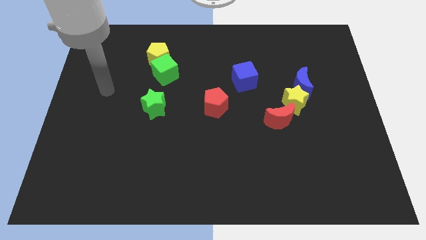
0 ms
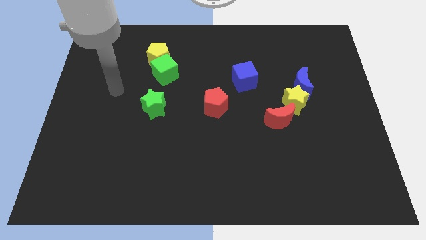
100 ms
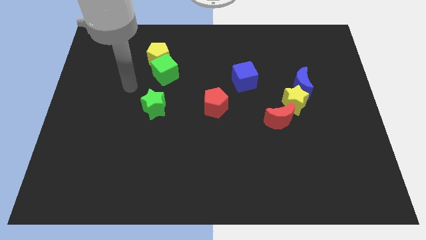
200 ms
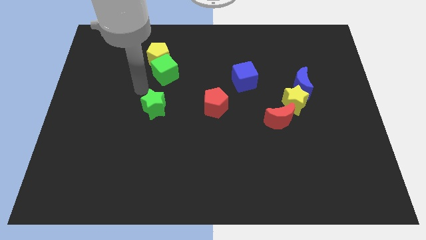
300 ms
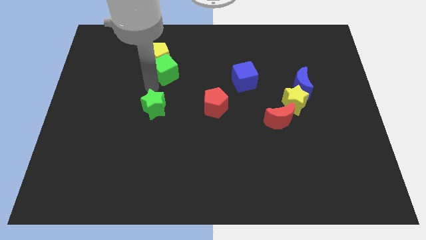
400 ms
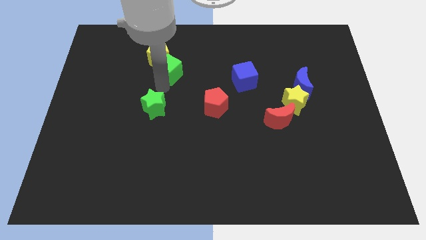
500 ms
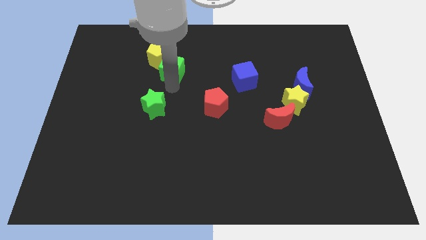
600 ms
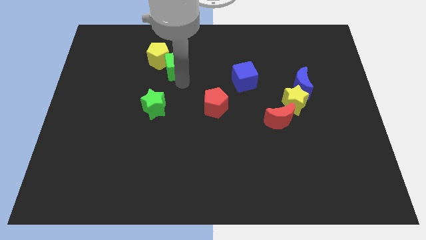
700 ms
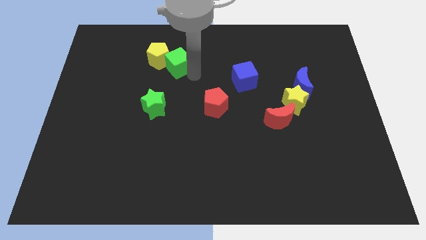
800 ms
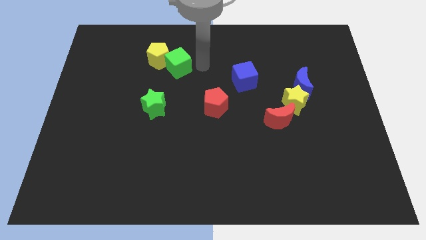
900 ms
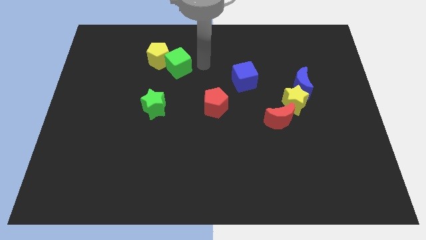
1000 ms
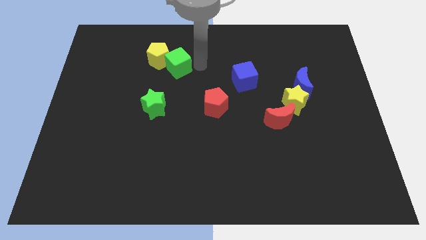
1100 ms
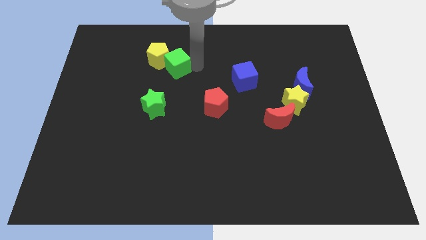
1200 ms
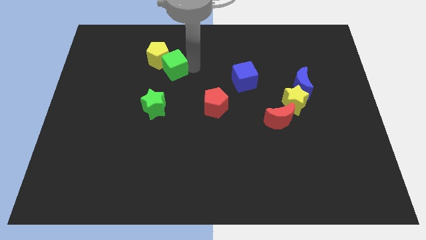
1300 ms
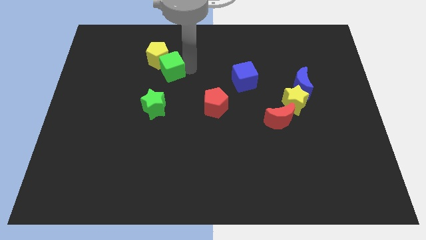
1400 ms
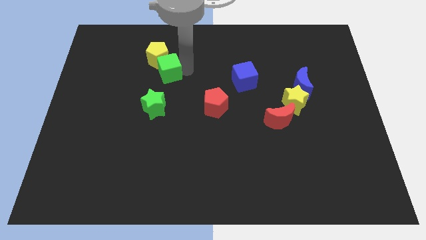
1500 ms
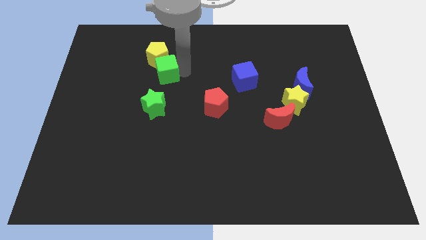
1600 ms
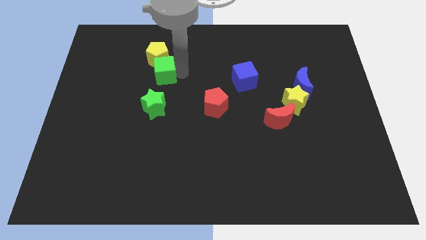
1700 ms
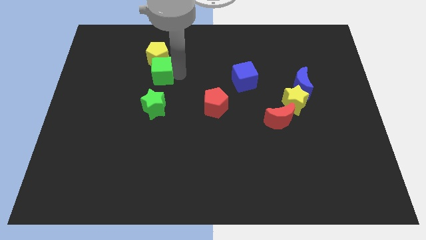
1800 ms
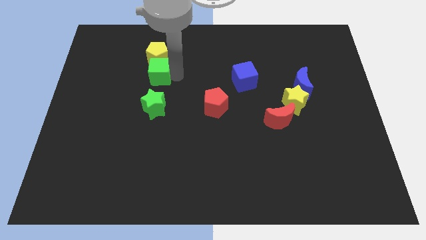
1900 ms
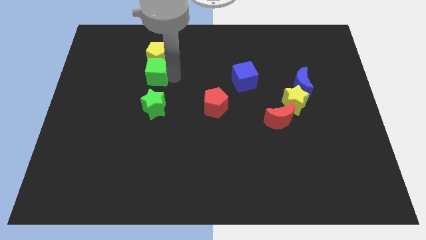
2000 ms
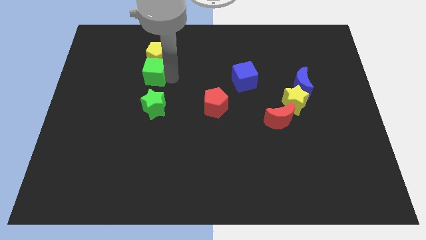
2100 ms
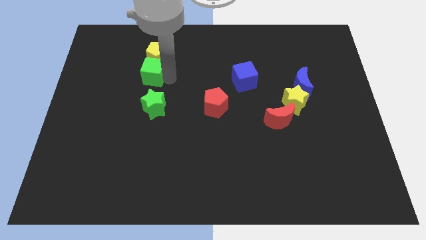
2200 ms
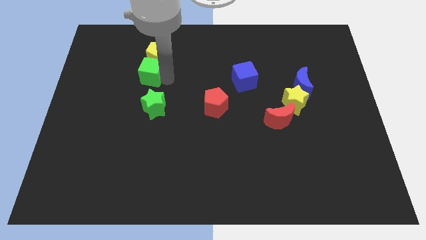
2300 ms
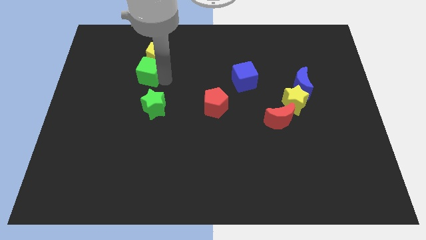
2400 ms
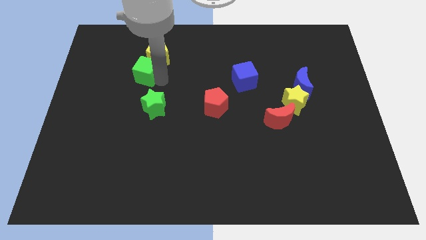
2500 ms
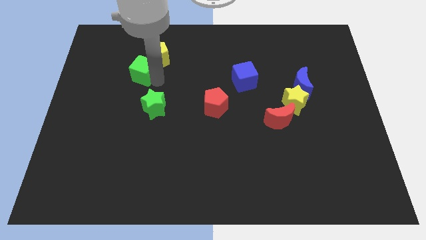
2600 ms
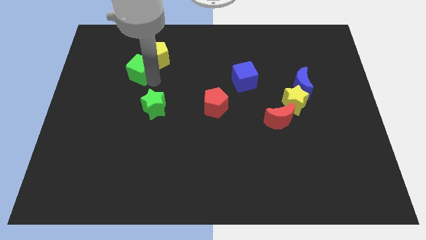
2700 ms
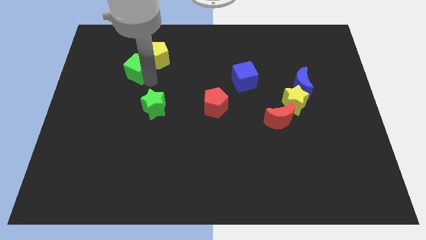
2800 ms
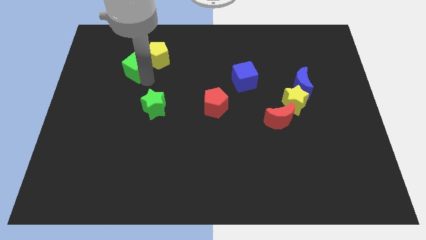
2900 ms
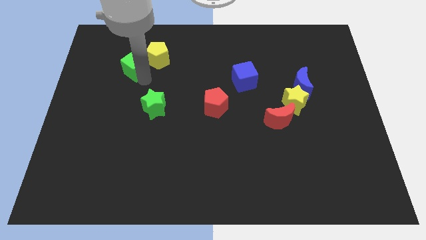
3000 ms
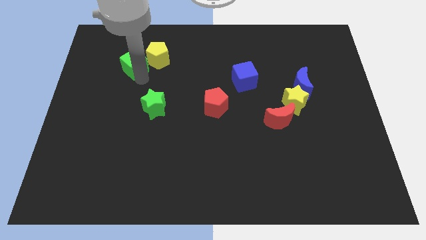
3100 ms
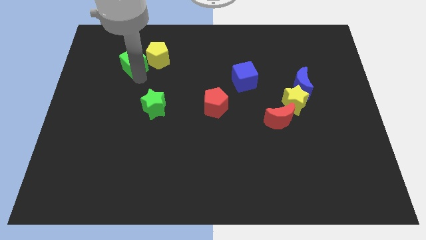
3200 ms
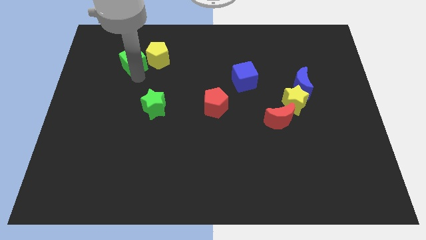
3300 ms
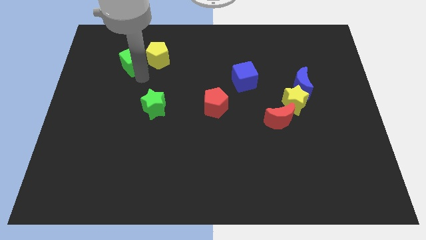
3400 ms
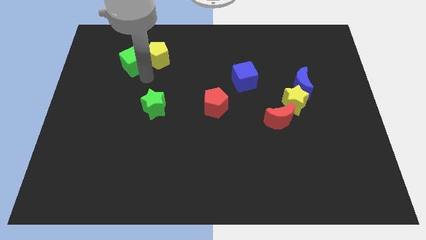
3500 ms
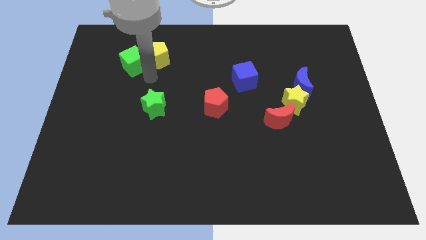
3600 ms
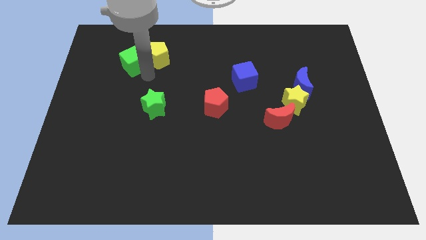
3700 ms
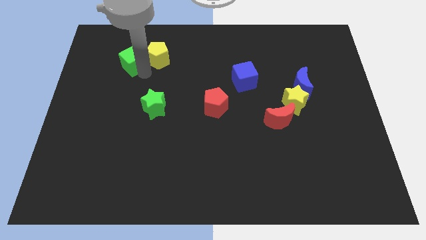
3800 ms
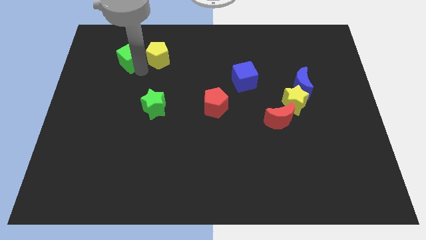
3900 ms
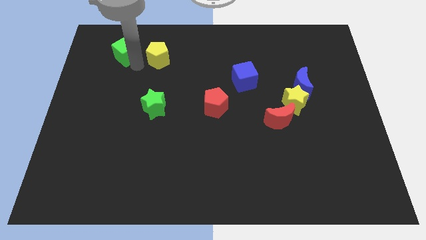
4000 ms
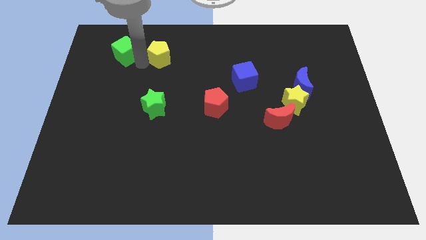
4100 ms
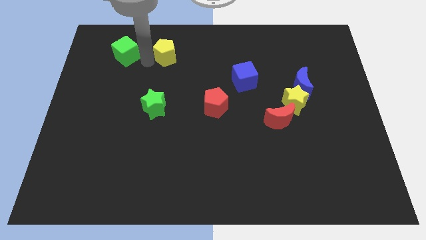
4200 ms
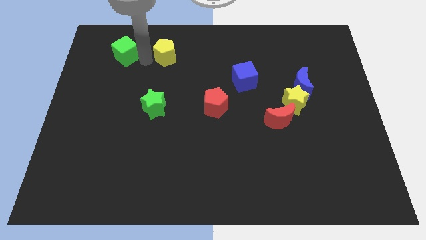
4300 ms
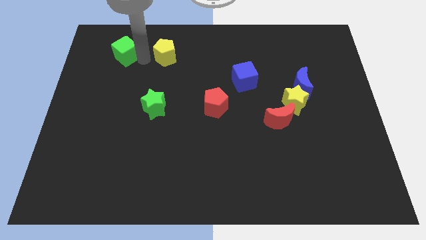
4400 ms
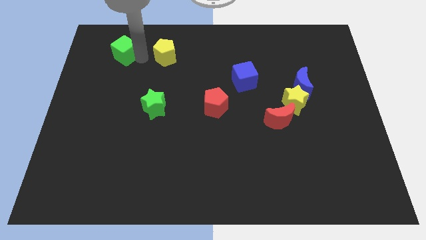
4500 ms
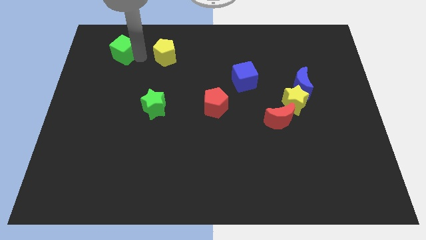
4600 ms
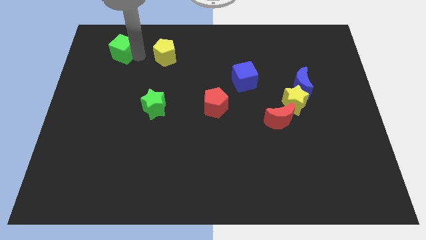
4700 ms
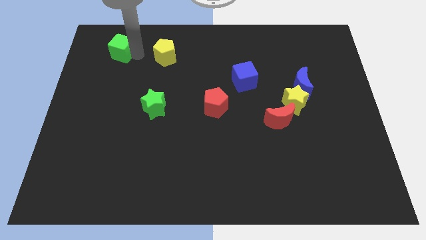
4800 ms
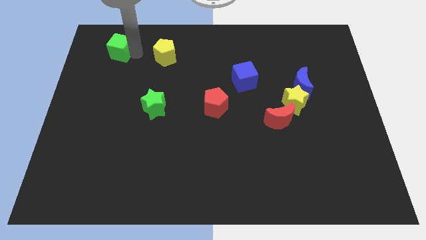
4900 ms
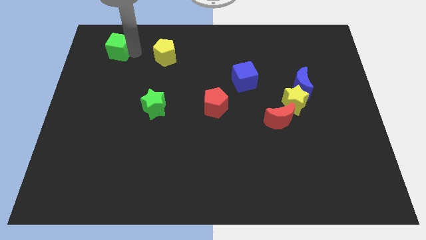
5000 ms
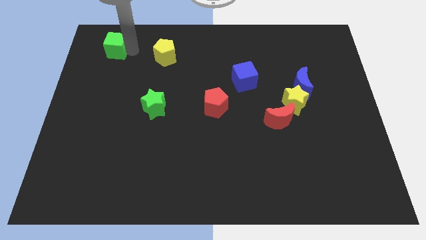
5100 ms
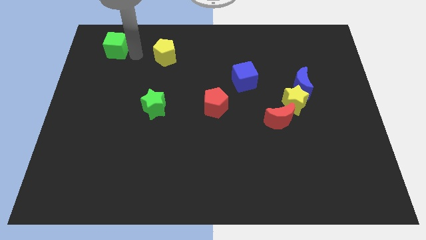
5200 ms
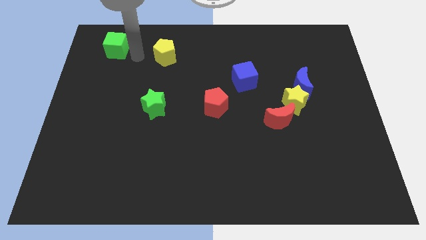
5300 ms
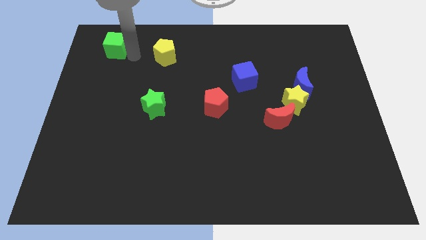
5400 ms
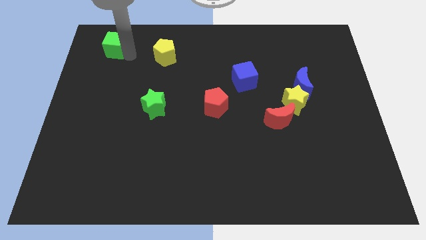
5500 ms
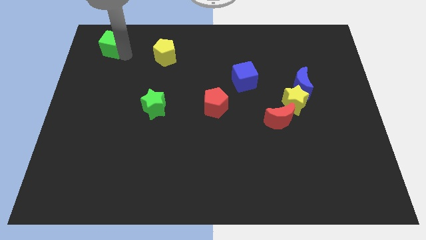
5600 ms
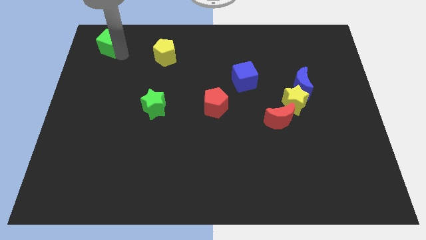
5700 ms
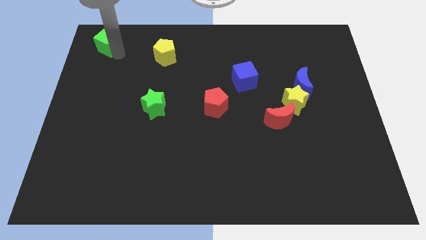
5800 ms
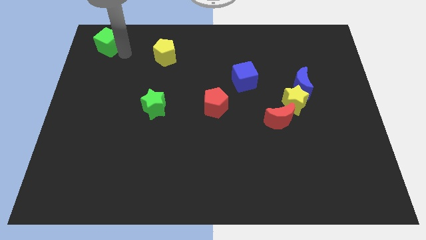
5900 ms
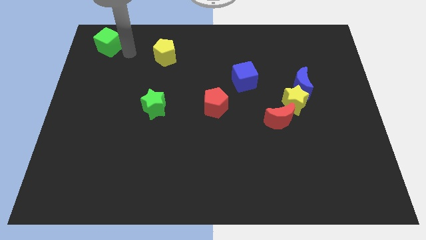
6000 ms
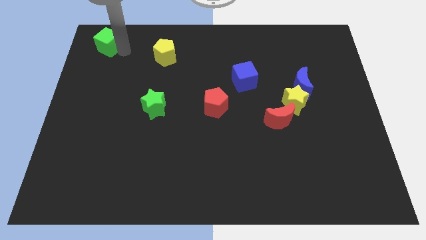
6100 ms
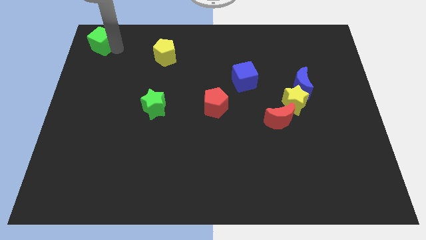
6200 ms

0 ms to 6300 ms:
slide the green cube to the top left of the board

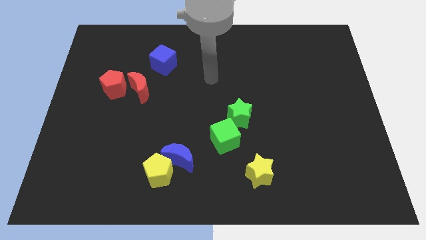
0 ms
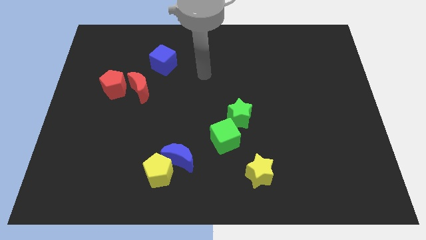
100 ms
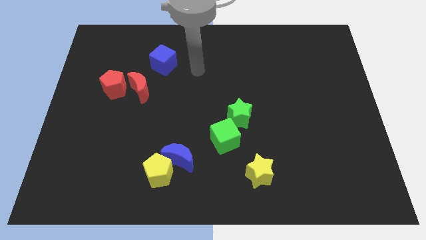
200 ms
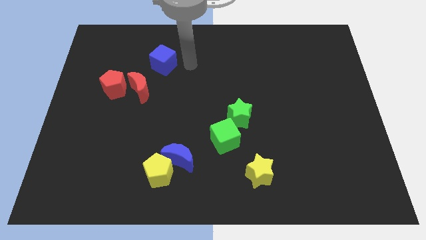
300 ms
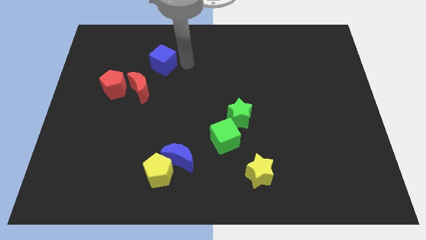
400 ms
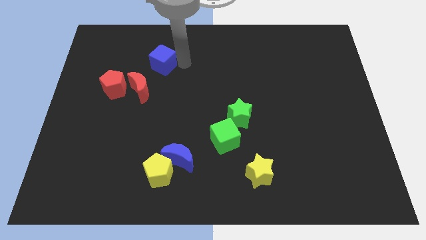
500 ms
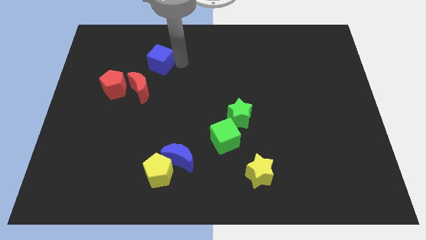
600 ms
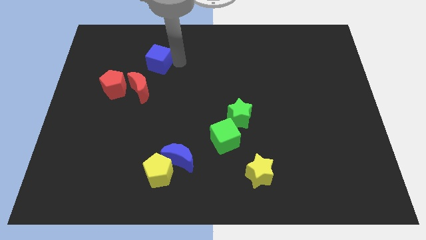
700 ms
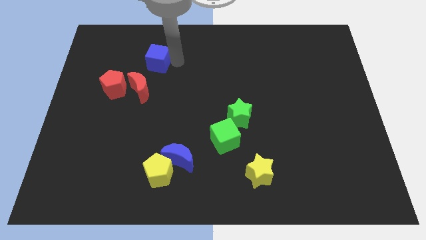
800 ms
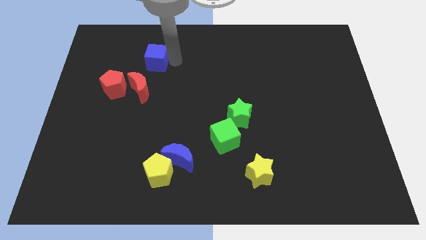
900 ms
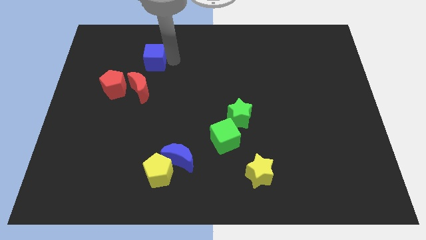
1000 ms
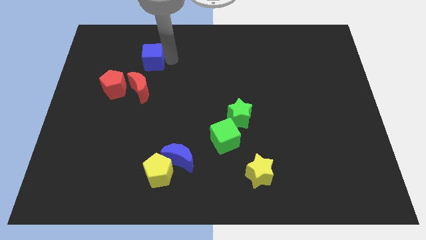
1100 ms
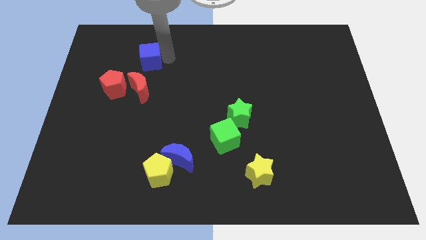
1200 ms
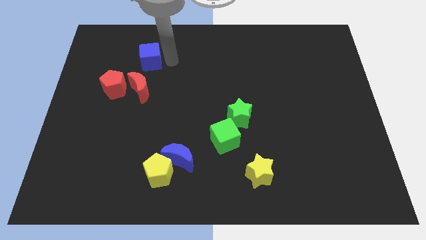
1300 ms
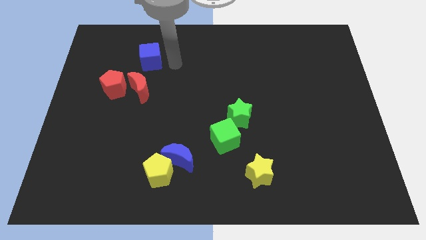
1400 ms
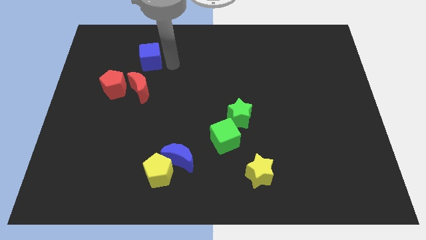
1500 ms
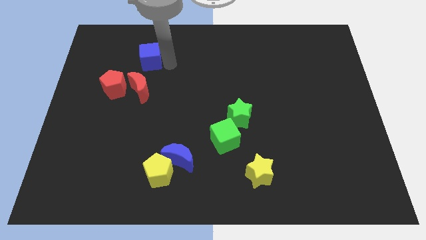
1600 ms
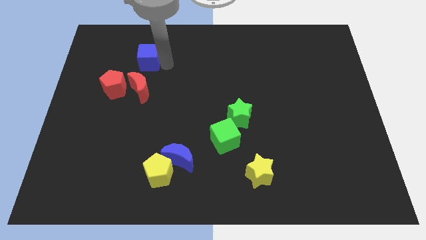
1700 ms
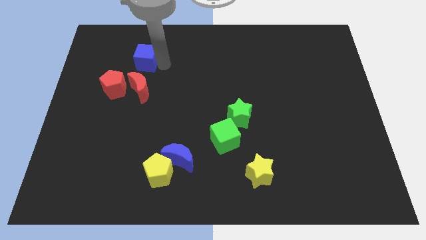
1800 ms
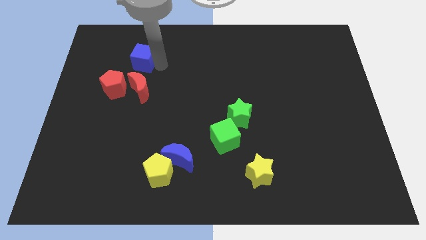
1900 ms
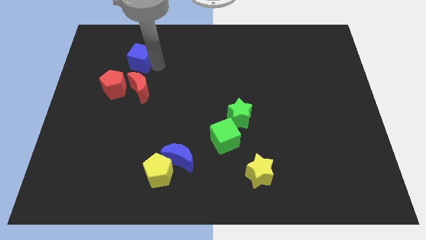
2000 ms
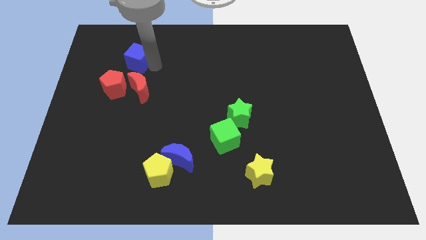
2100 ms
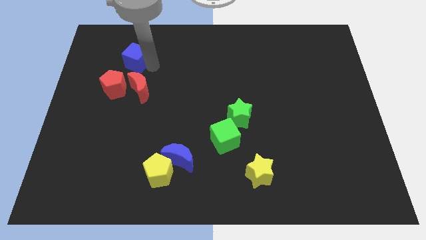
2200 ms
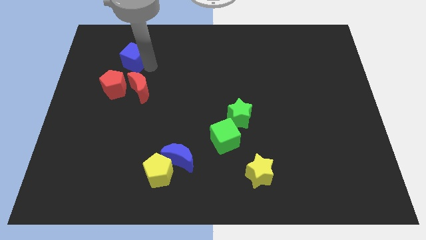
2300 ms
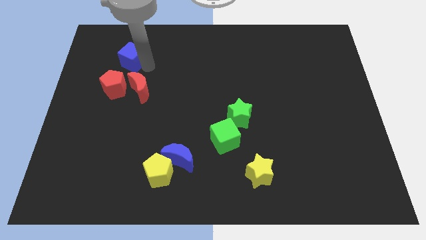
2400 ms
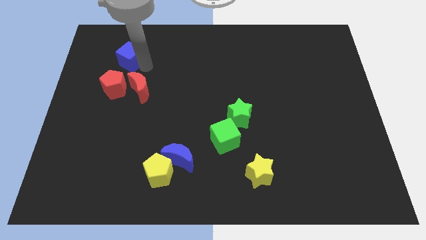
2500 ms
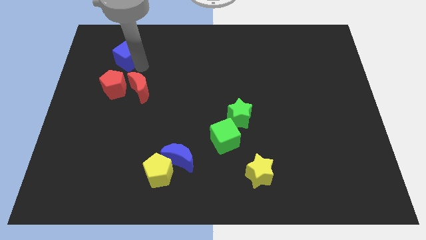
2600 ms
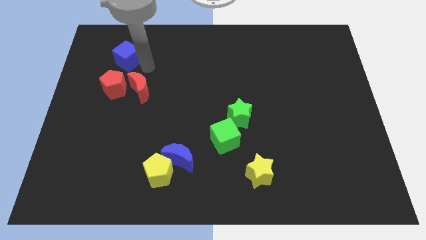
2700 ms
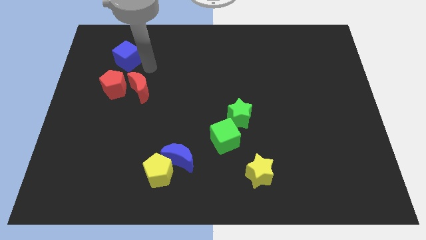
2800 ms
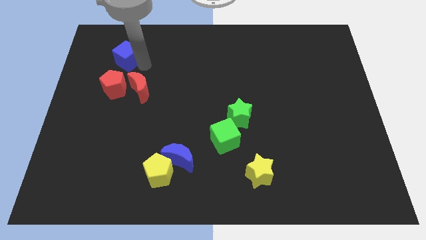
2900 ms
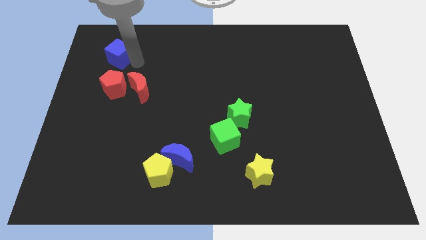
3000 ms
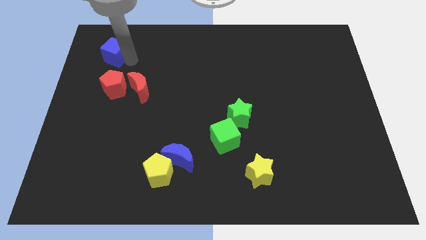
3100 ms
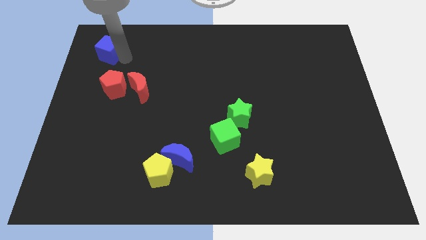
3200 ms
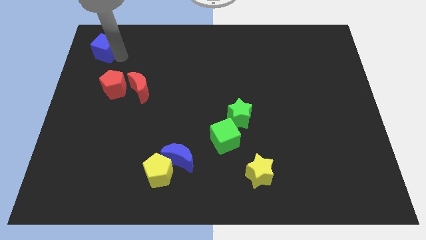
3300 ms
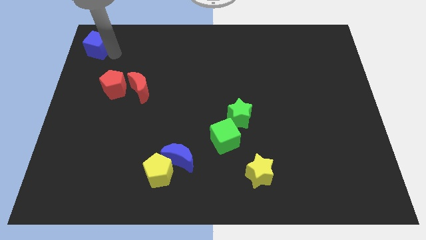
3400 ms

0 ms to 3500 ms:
slide the blue cube to the top left
